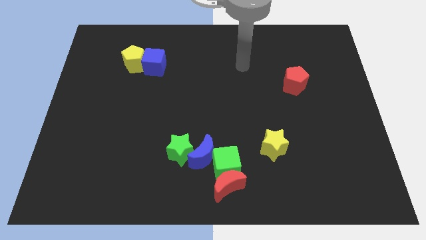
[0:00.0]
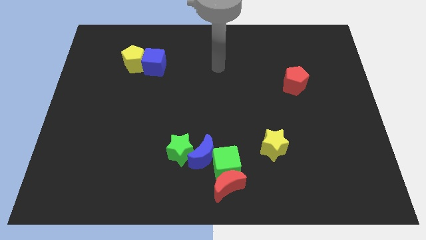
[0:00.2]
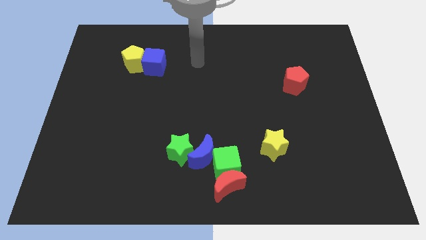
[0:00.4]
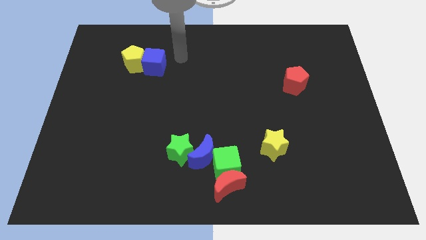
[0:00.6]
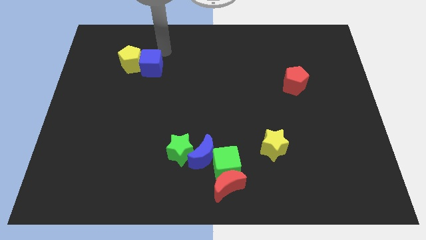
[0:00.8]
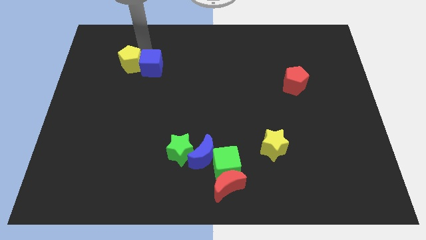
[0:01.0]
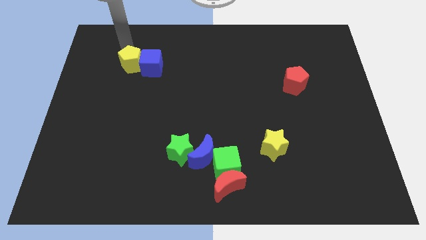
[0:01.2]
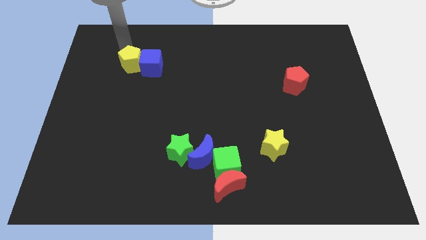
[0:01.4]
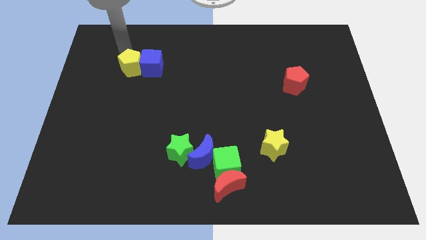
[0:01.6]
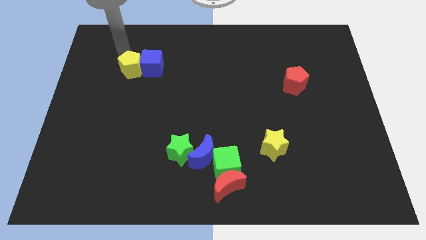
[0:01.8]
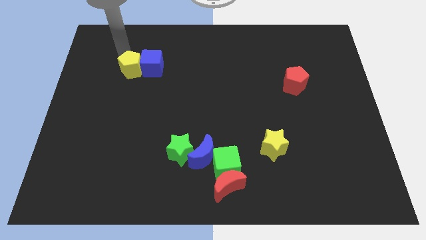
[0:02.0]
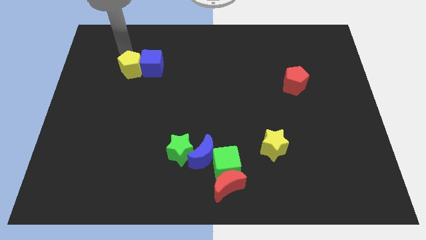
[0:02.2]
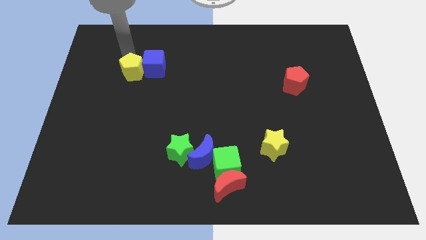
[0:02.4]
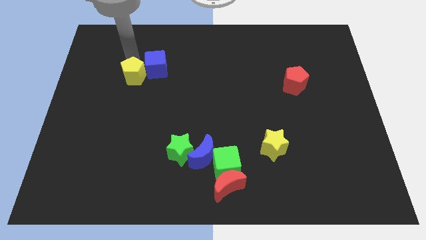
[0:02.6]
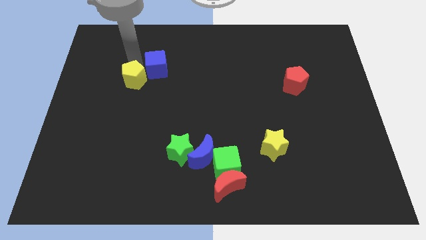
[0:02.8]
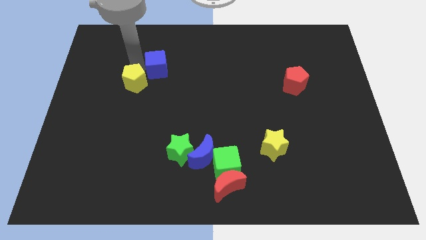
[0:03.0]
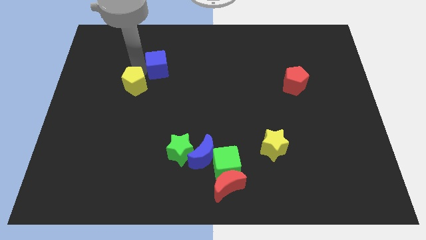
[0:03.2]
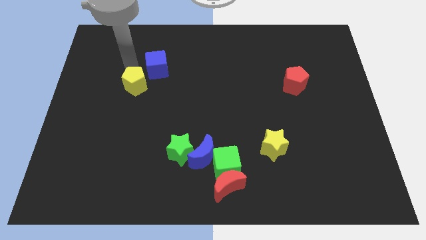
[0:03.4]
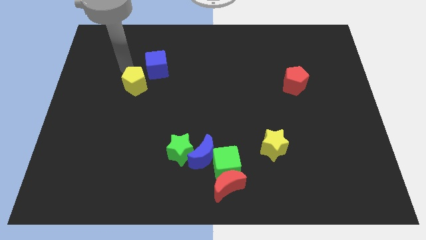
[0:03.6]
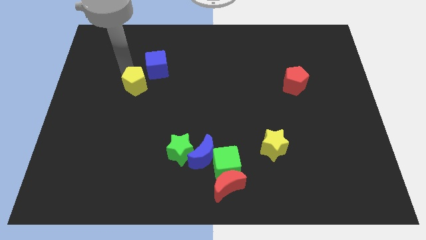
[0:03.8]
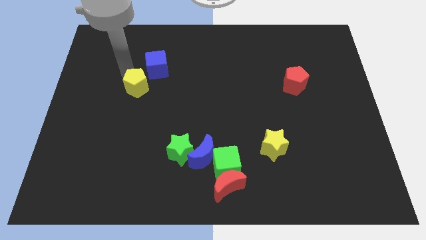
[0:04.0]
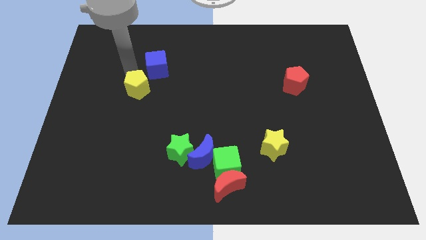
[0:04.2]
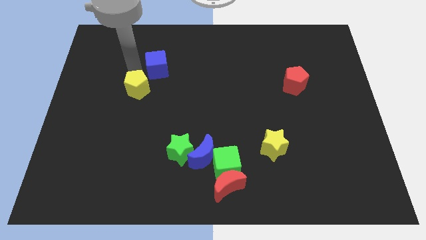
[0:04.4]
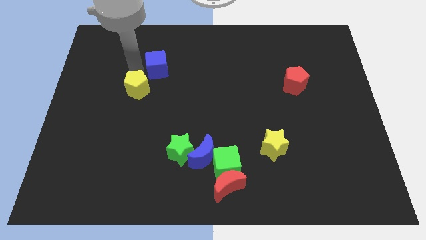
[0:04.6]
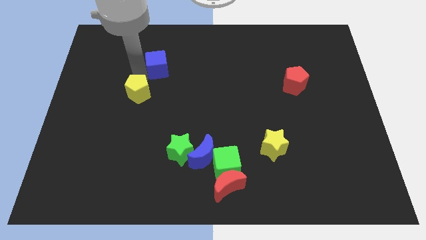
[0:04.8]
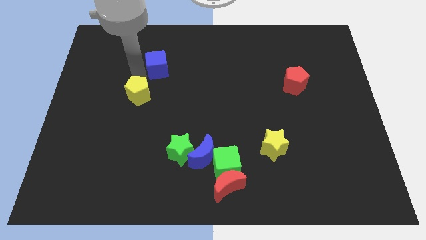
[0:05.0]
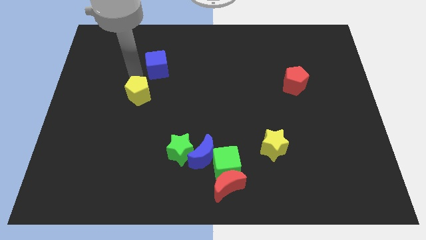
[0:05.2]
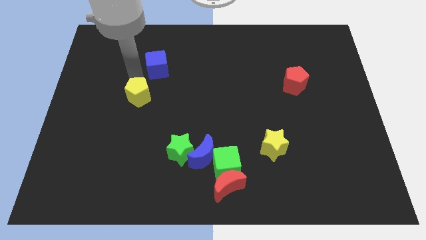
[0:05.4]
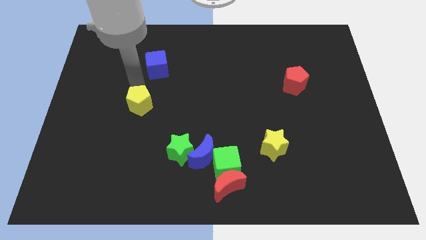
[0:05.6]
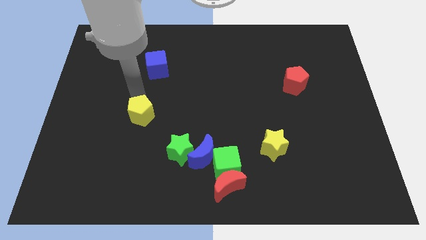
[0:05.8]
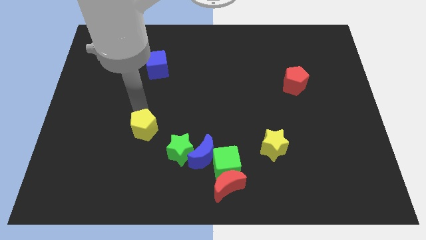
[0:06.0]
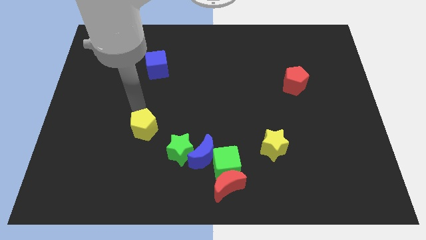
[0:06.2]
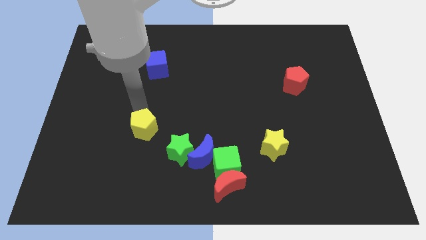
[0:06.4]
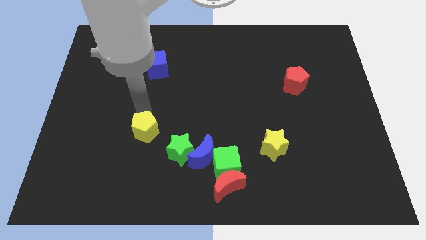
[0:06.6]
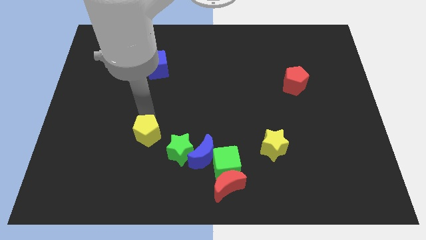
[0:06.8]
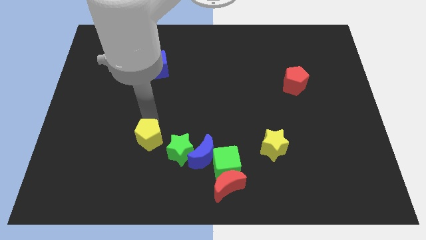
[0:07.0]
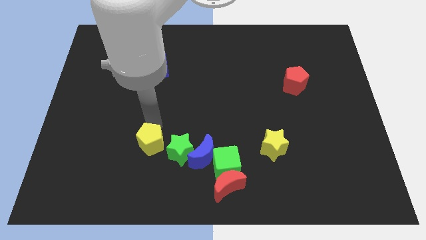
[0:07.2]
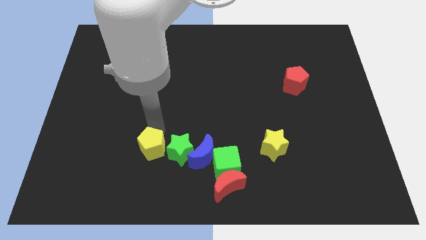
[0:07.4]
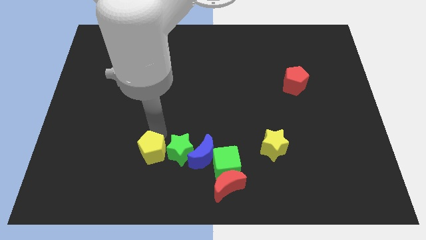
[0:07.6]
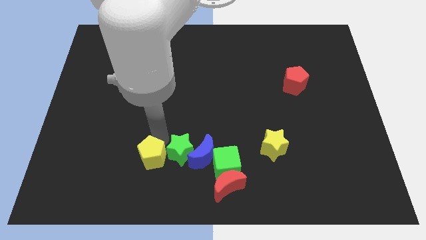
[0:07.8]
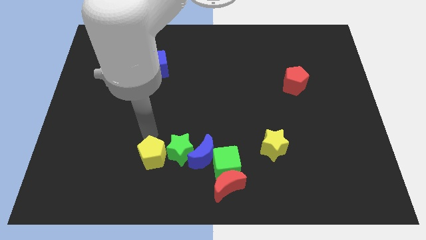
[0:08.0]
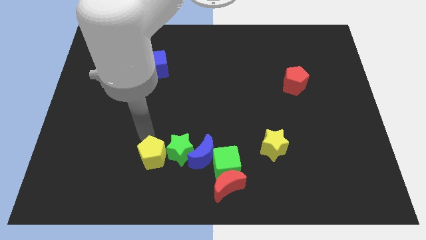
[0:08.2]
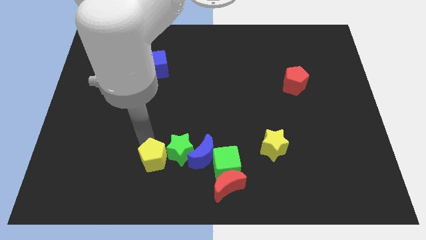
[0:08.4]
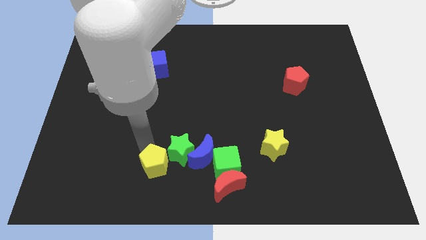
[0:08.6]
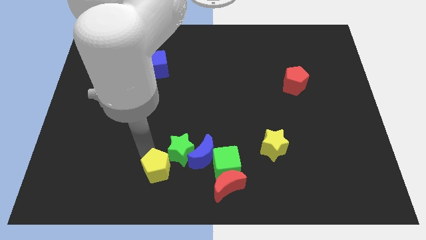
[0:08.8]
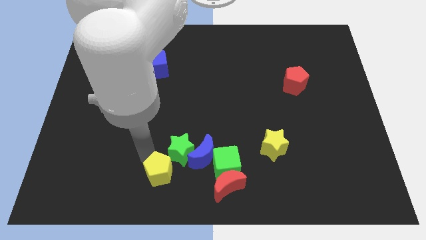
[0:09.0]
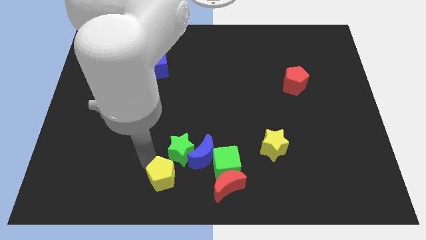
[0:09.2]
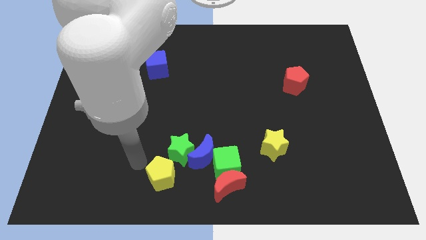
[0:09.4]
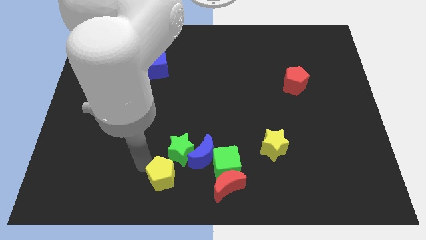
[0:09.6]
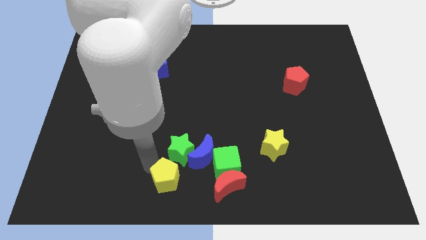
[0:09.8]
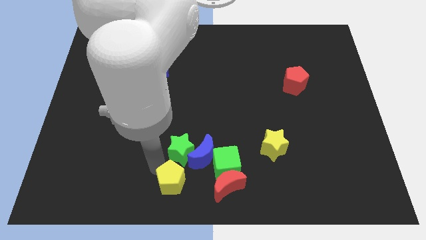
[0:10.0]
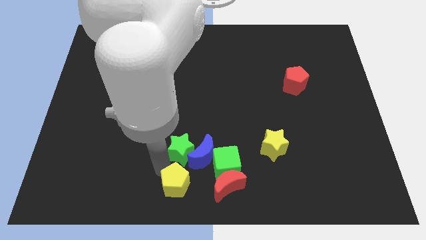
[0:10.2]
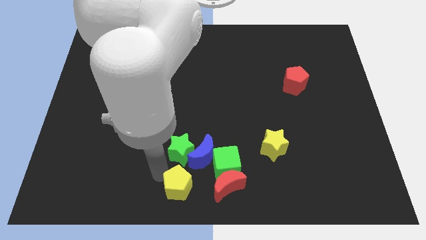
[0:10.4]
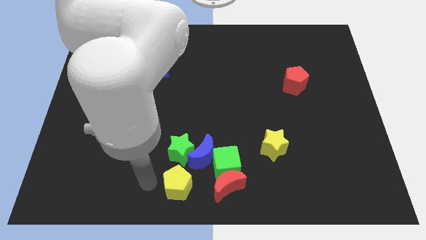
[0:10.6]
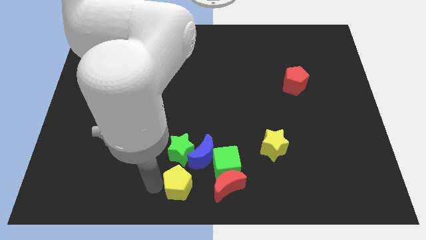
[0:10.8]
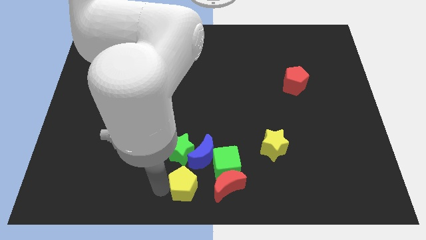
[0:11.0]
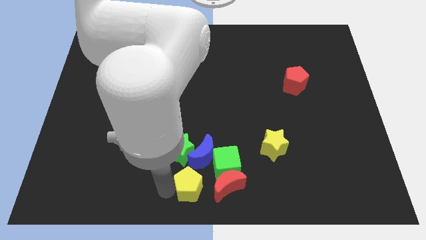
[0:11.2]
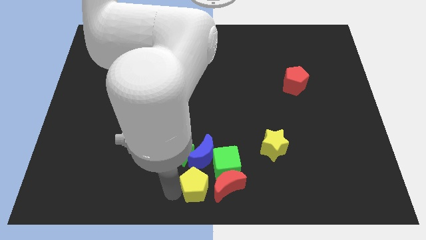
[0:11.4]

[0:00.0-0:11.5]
slide the yellow pentagon towards the red moon

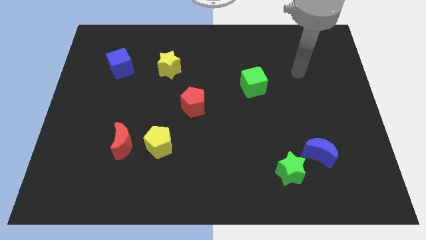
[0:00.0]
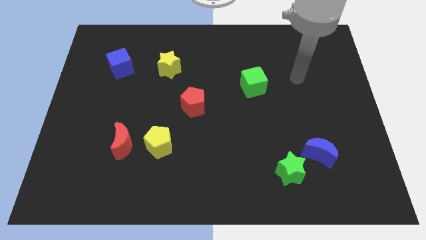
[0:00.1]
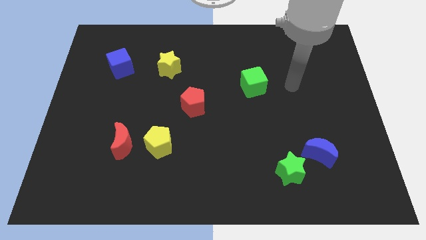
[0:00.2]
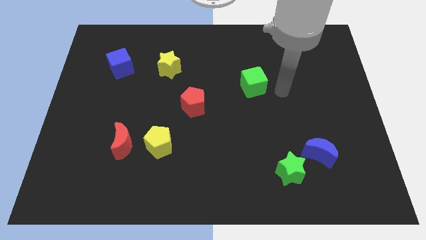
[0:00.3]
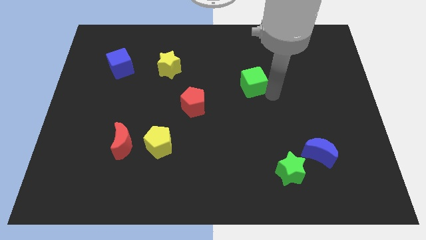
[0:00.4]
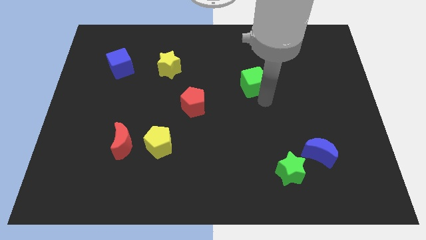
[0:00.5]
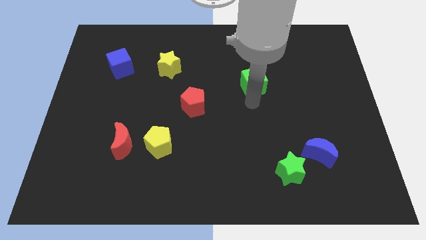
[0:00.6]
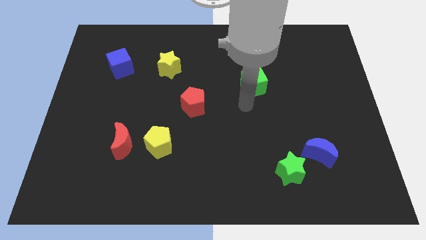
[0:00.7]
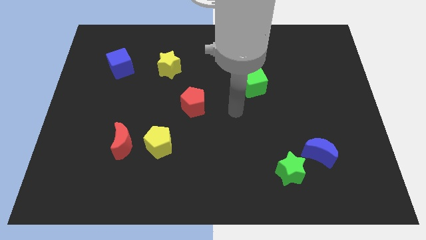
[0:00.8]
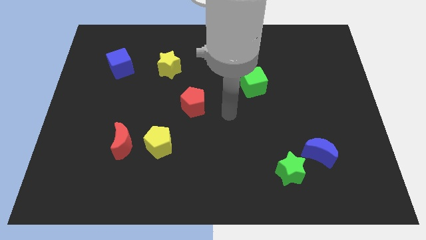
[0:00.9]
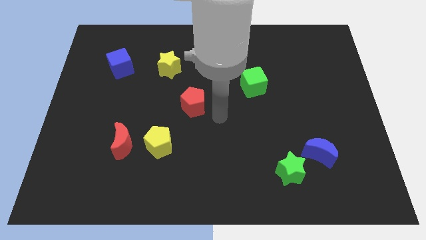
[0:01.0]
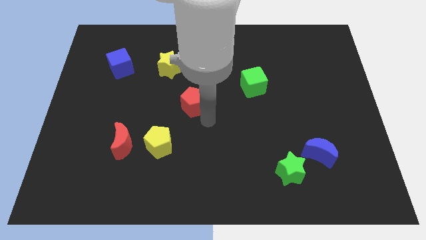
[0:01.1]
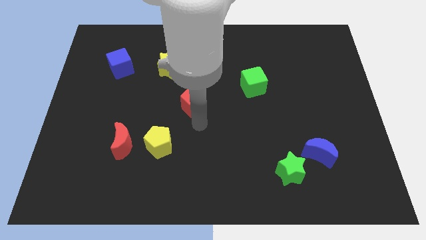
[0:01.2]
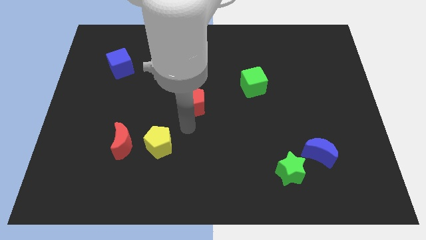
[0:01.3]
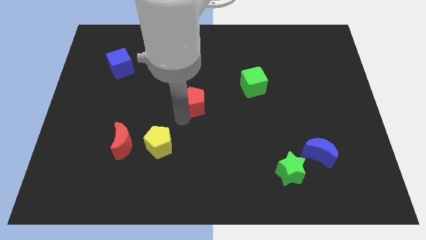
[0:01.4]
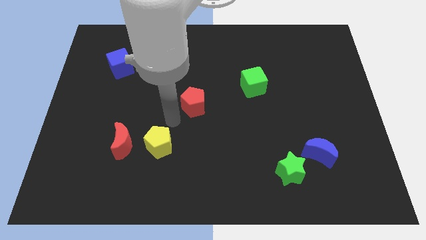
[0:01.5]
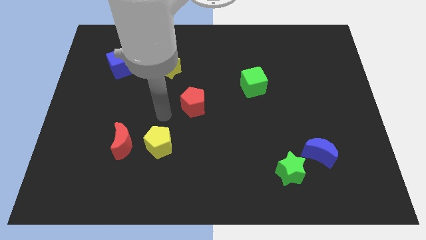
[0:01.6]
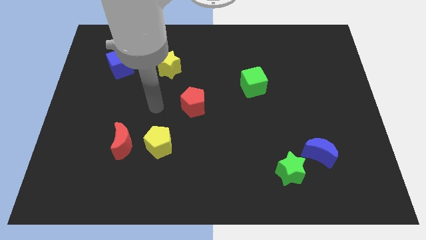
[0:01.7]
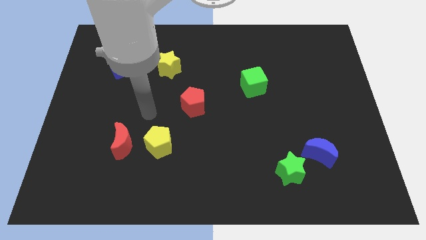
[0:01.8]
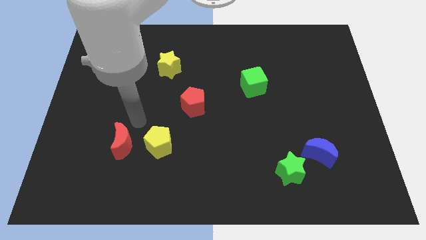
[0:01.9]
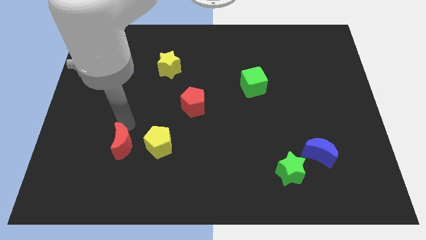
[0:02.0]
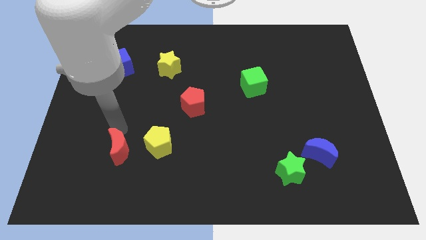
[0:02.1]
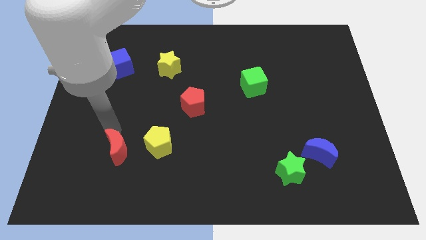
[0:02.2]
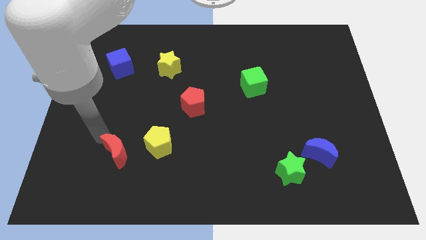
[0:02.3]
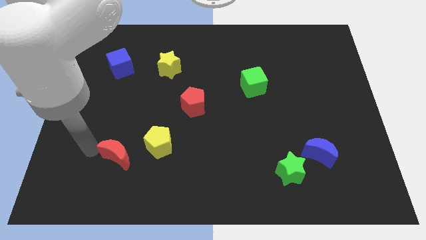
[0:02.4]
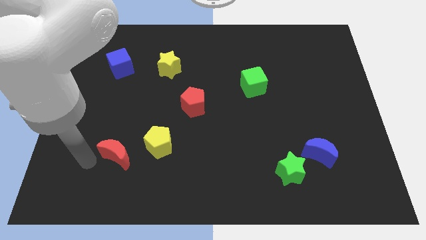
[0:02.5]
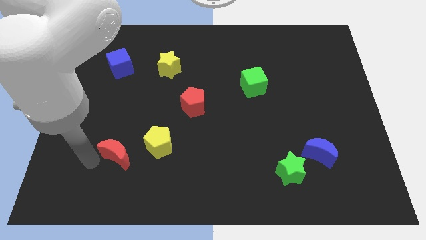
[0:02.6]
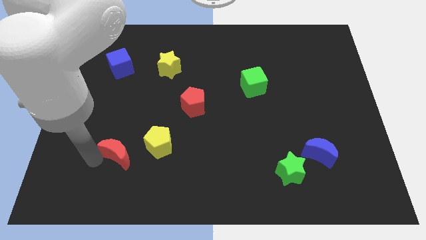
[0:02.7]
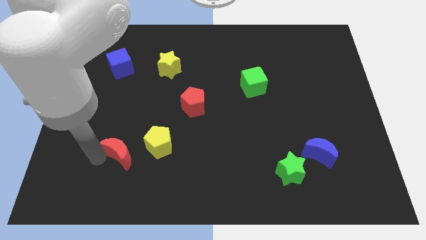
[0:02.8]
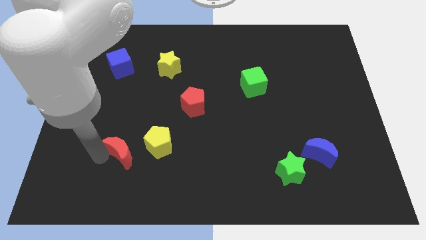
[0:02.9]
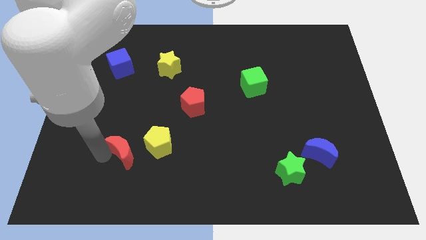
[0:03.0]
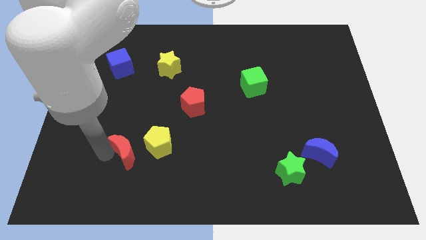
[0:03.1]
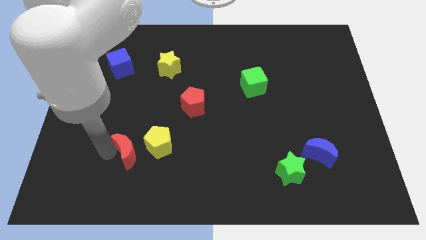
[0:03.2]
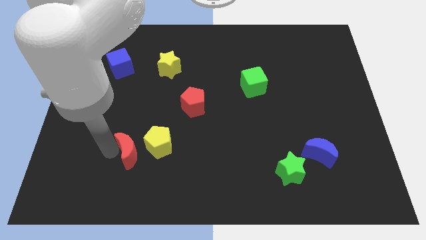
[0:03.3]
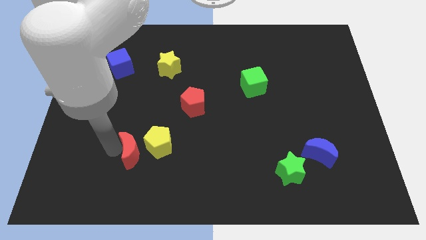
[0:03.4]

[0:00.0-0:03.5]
put the red moon close to the yellow pentagon
